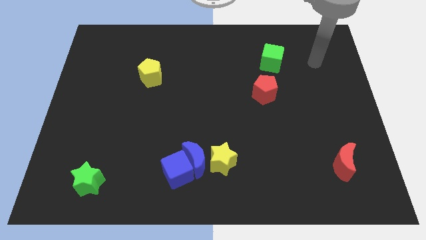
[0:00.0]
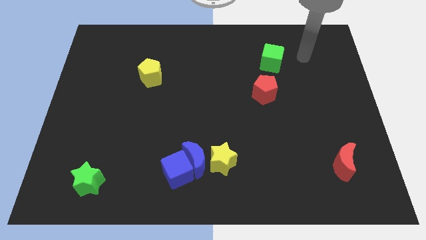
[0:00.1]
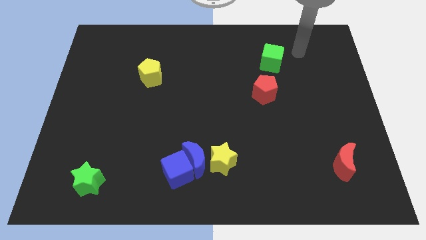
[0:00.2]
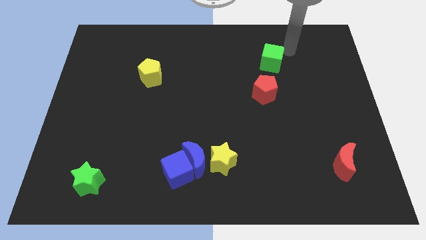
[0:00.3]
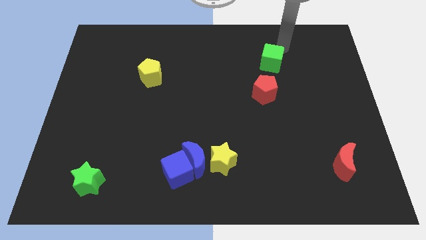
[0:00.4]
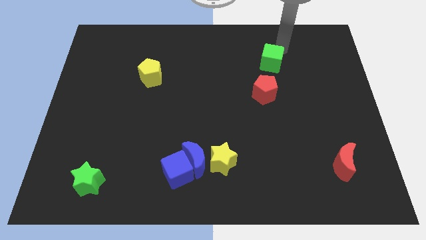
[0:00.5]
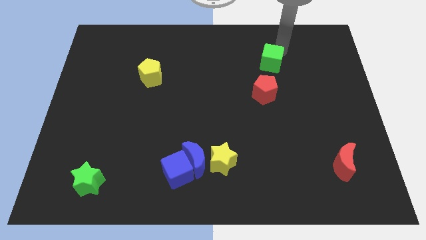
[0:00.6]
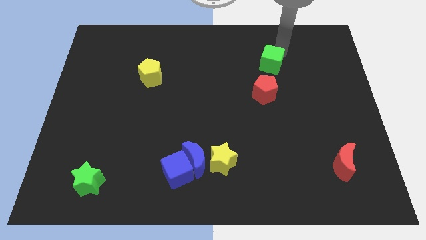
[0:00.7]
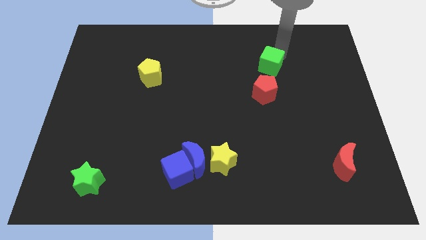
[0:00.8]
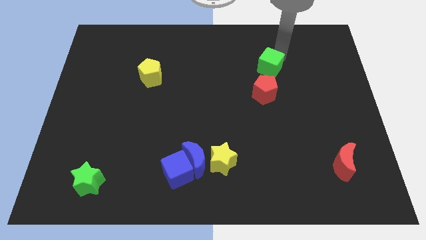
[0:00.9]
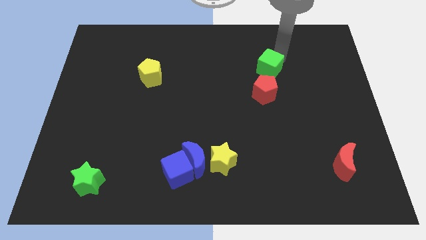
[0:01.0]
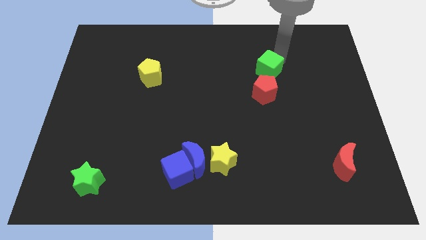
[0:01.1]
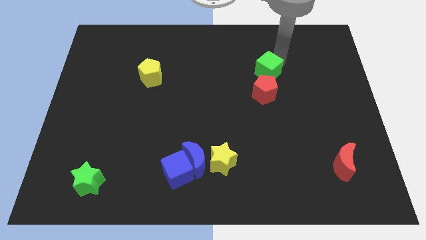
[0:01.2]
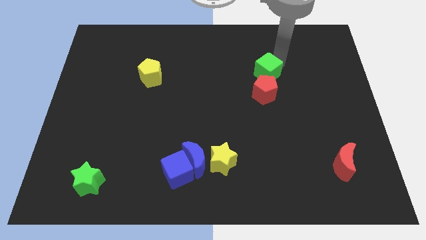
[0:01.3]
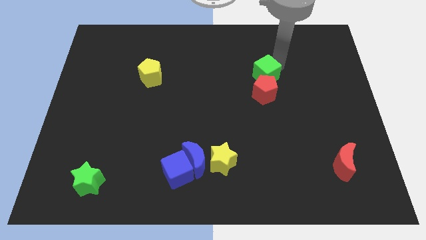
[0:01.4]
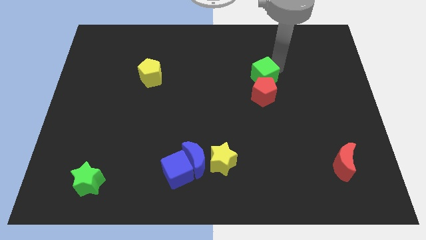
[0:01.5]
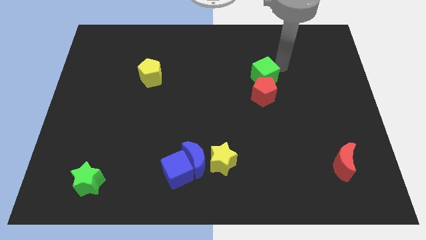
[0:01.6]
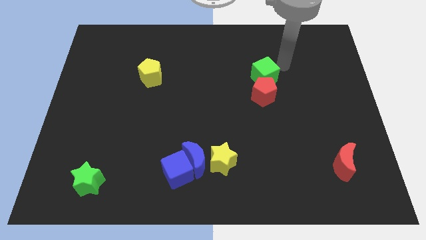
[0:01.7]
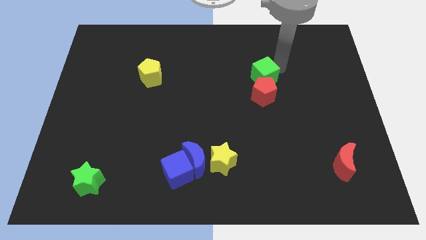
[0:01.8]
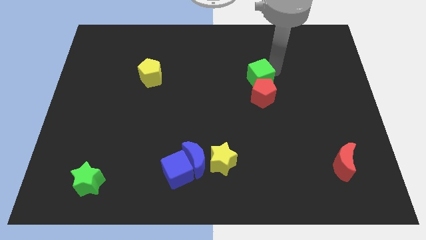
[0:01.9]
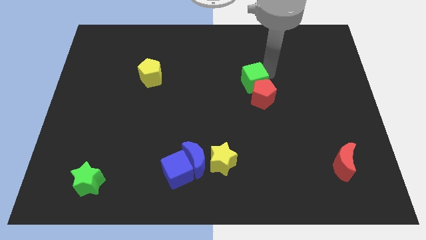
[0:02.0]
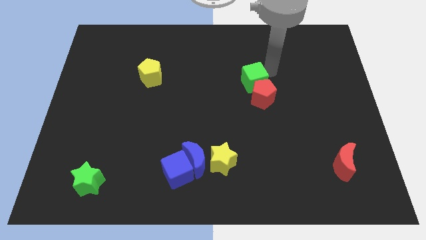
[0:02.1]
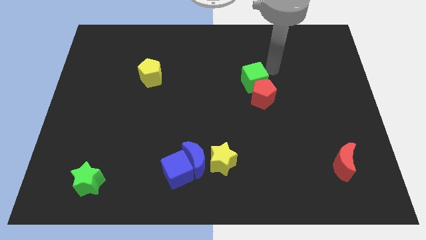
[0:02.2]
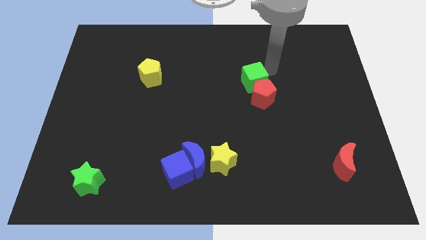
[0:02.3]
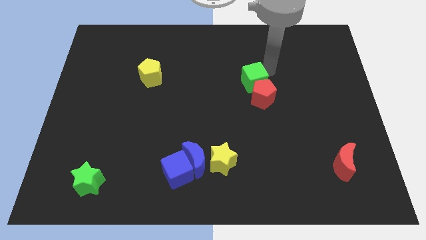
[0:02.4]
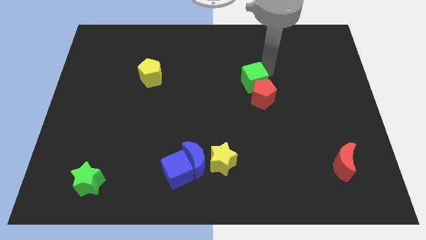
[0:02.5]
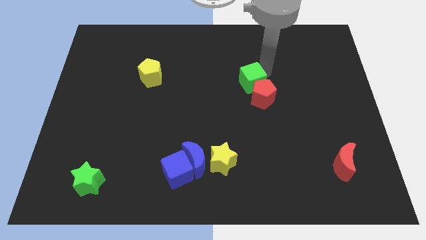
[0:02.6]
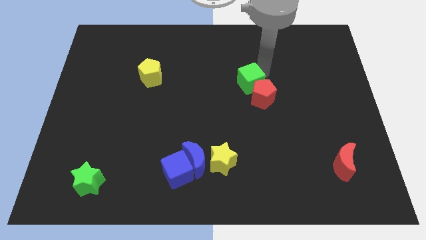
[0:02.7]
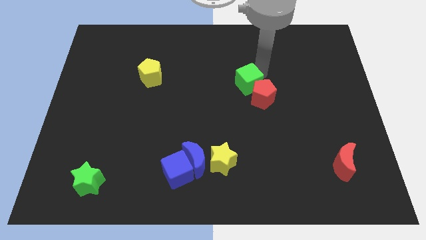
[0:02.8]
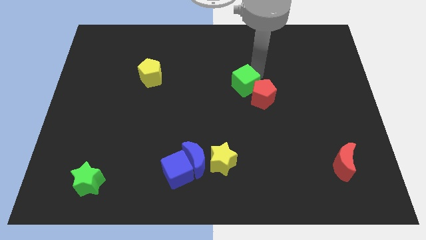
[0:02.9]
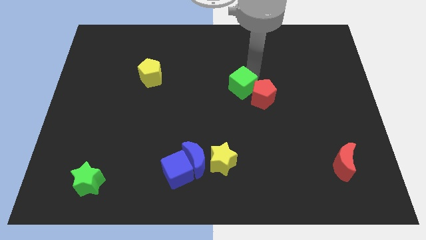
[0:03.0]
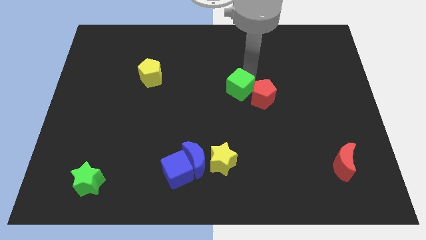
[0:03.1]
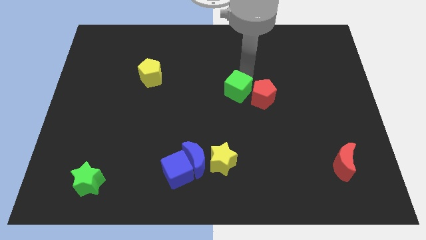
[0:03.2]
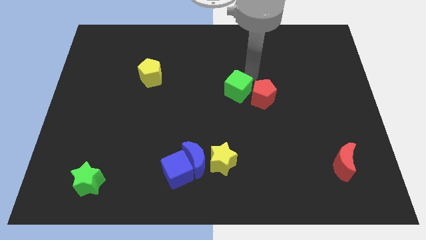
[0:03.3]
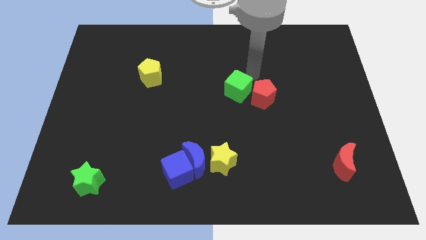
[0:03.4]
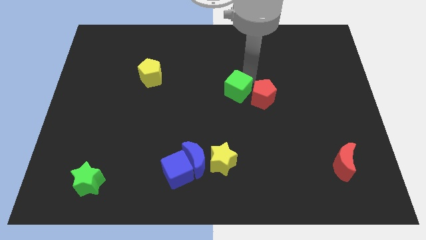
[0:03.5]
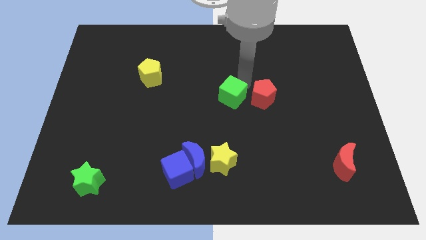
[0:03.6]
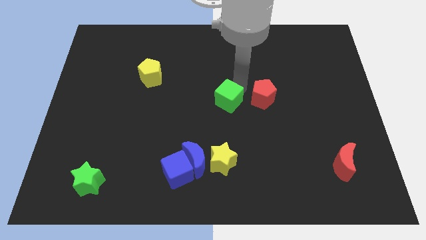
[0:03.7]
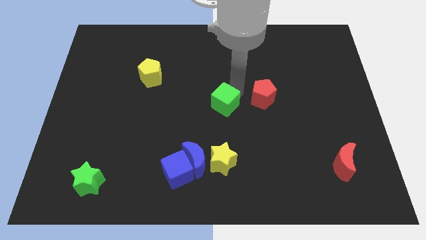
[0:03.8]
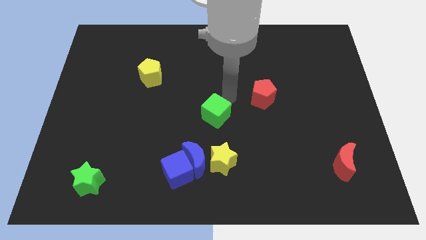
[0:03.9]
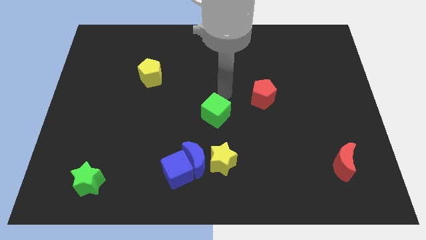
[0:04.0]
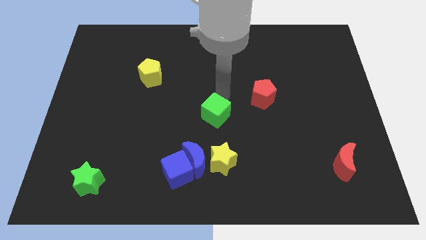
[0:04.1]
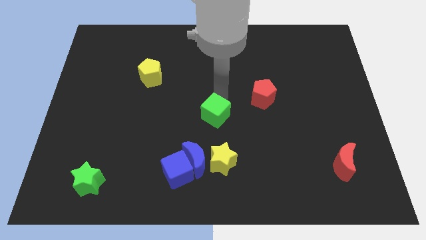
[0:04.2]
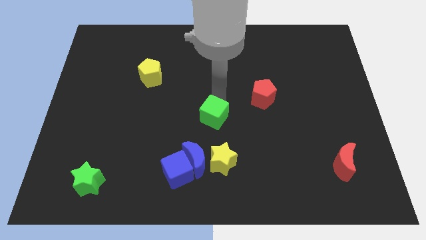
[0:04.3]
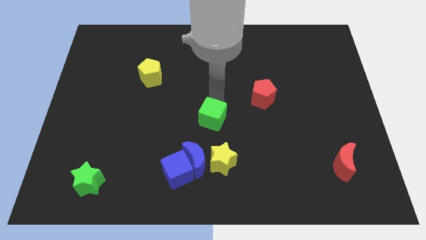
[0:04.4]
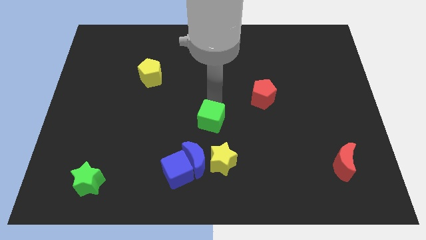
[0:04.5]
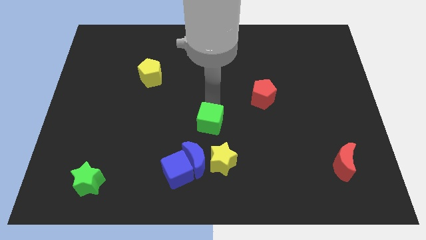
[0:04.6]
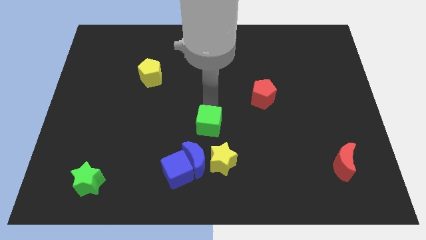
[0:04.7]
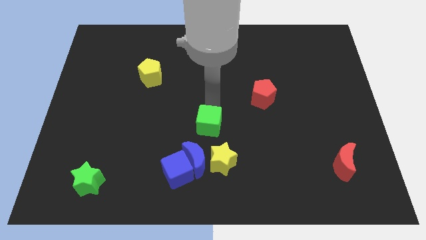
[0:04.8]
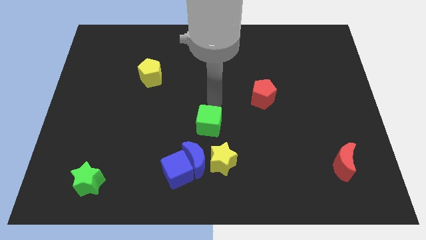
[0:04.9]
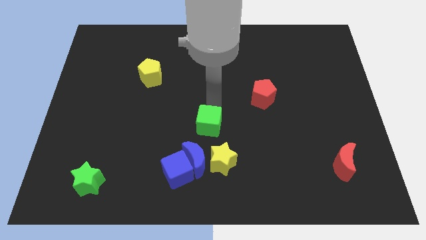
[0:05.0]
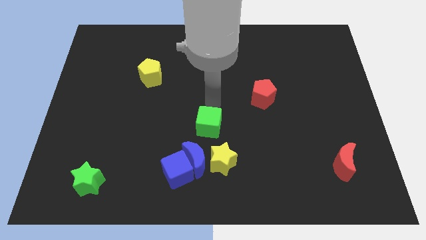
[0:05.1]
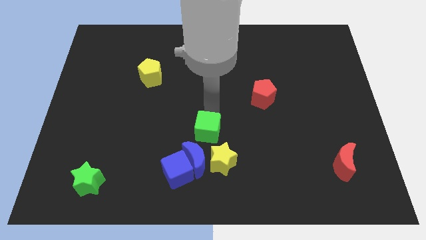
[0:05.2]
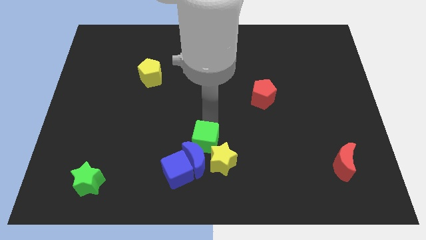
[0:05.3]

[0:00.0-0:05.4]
put the green cube to the blue moon
